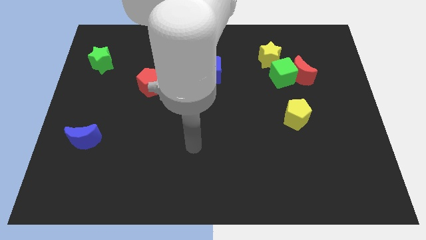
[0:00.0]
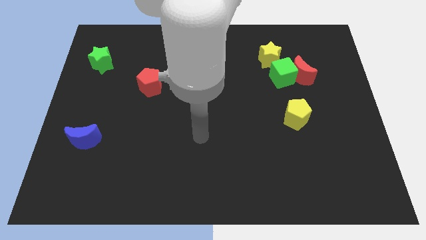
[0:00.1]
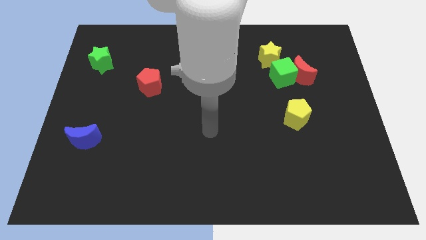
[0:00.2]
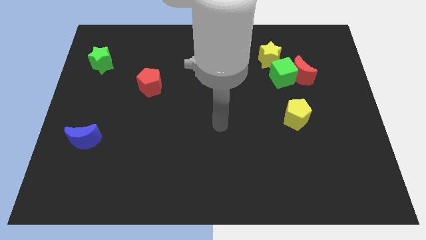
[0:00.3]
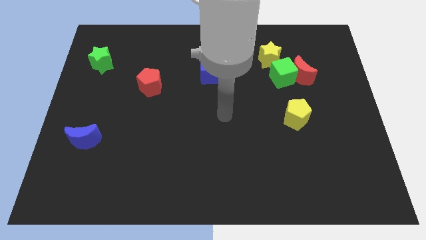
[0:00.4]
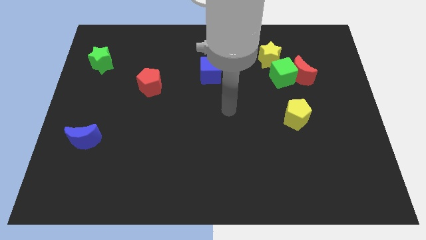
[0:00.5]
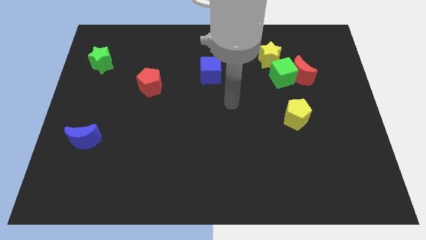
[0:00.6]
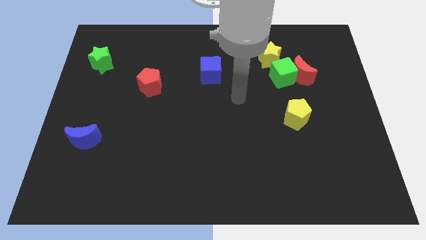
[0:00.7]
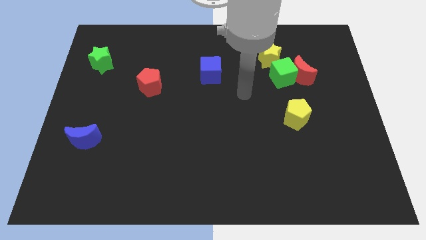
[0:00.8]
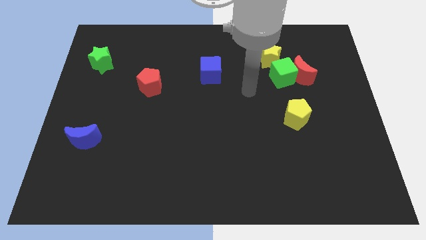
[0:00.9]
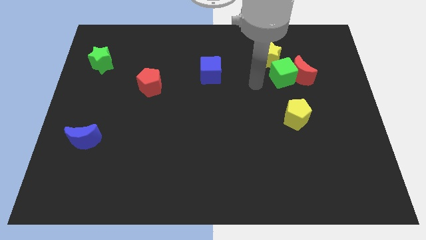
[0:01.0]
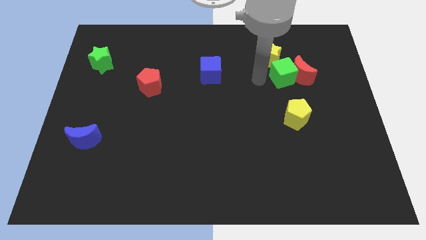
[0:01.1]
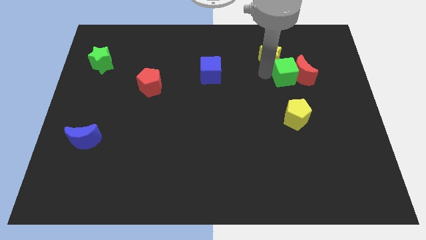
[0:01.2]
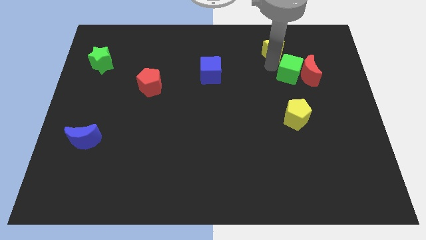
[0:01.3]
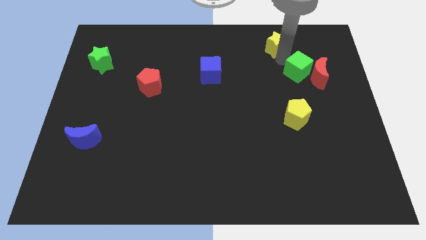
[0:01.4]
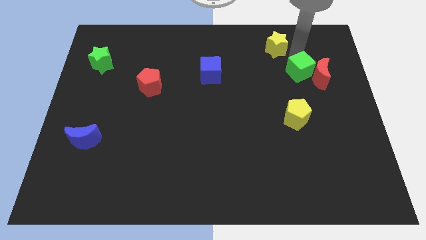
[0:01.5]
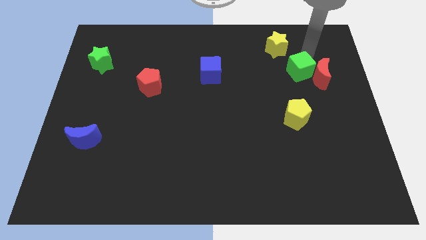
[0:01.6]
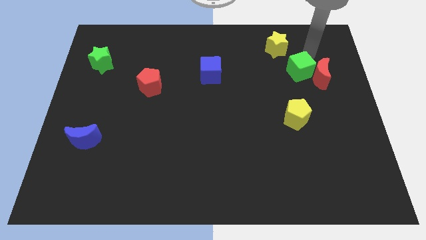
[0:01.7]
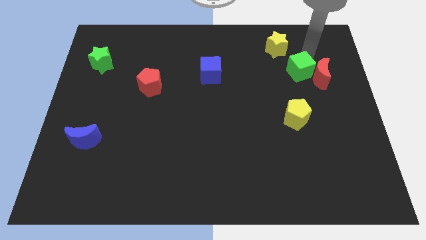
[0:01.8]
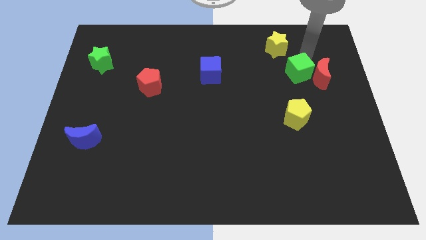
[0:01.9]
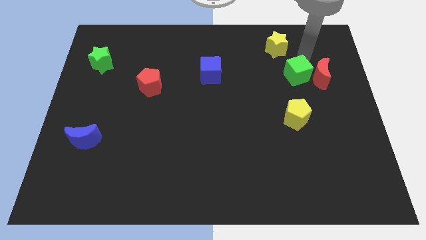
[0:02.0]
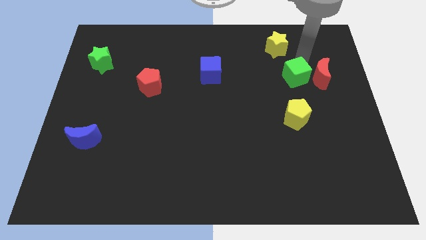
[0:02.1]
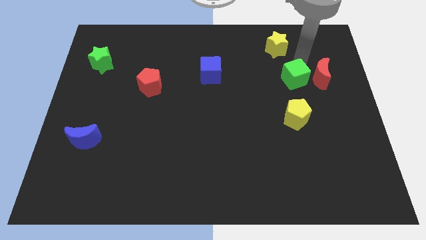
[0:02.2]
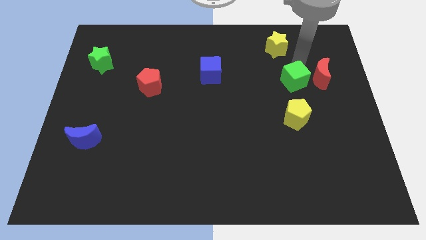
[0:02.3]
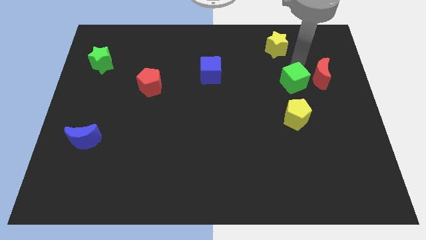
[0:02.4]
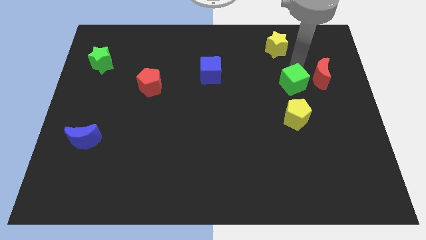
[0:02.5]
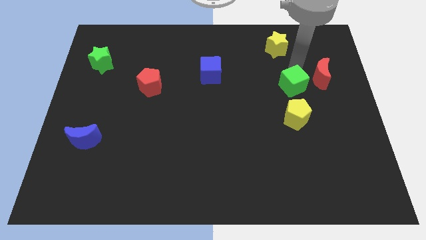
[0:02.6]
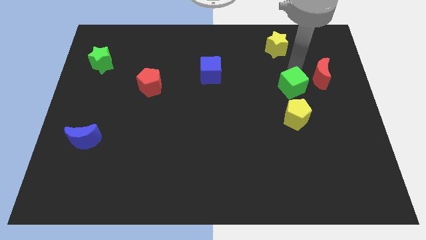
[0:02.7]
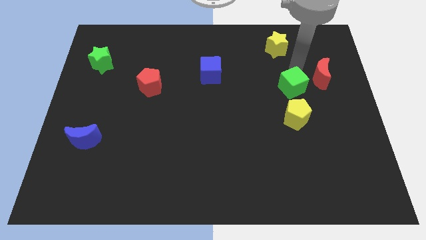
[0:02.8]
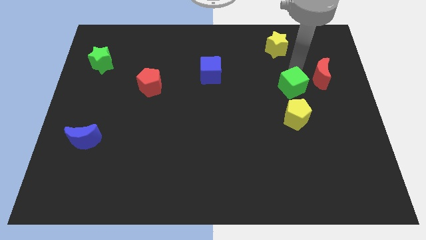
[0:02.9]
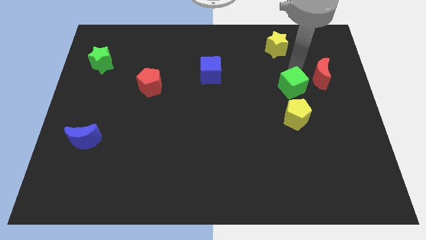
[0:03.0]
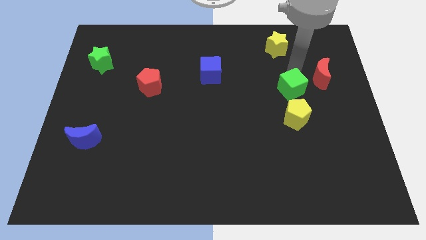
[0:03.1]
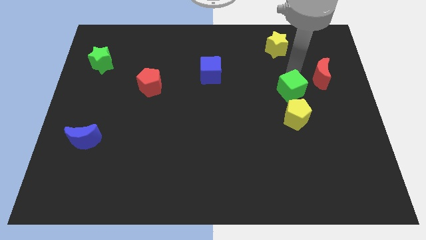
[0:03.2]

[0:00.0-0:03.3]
pull the green cube apart from the red moon and yellow star

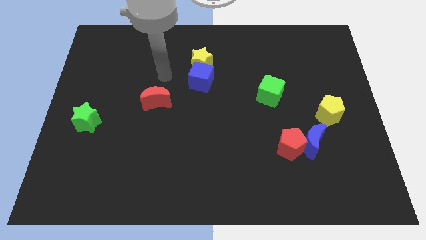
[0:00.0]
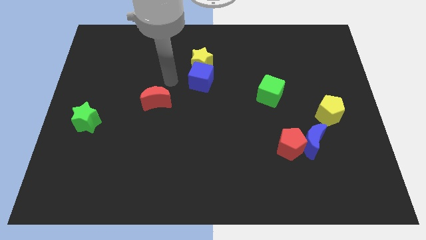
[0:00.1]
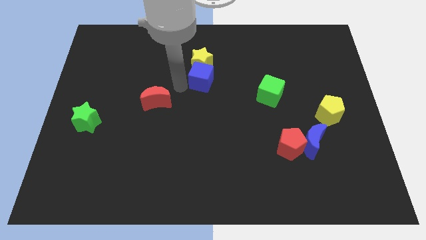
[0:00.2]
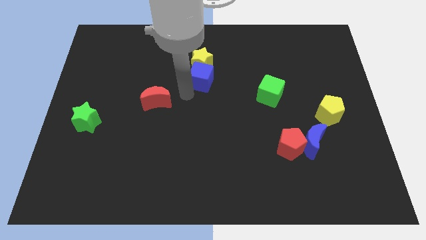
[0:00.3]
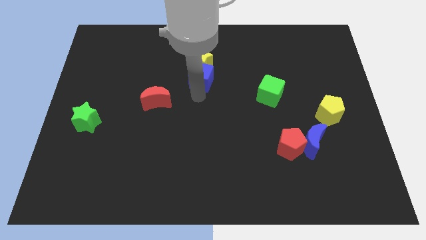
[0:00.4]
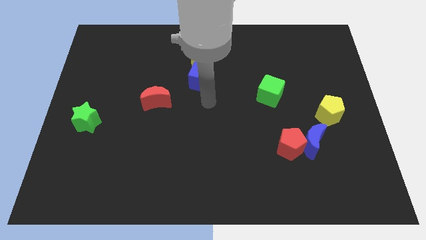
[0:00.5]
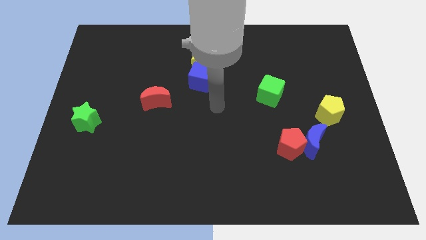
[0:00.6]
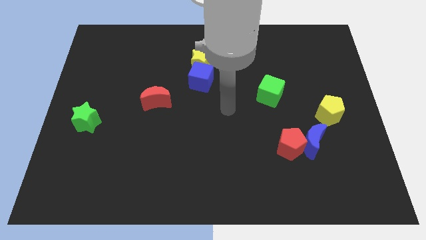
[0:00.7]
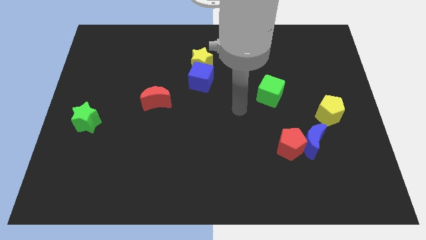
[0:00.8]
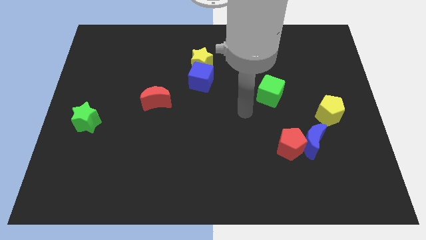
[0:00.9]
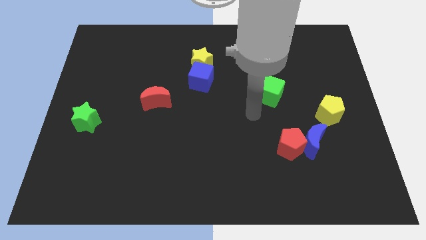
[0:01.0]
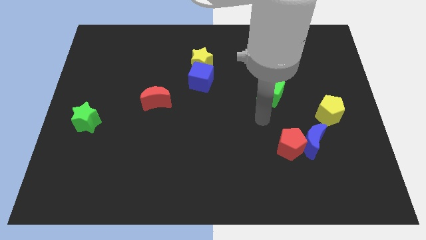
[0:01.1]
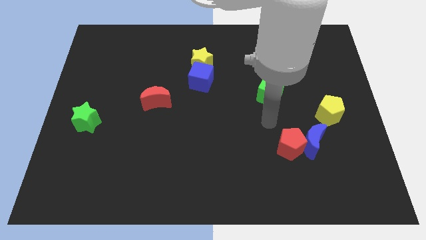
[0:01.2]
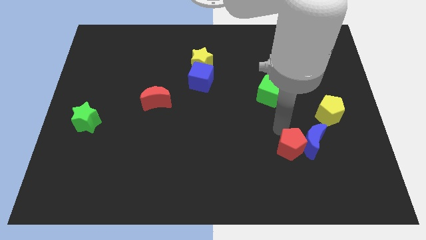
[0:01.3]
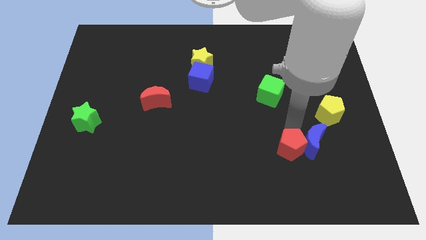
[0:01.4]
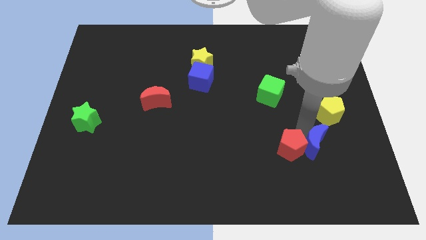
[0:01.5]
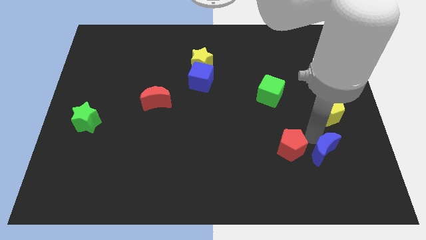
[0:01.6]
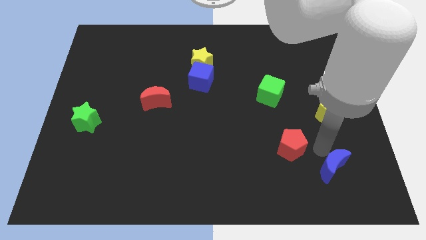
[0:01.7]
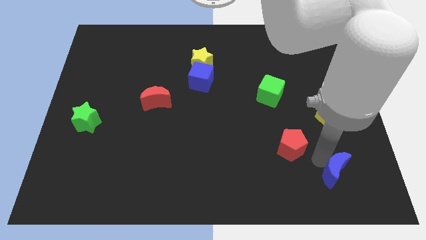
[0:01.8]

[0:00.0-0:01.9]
pull the red pentagon apart from the blue moon

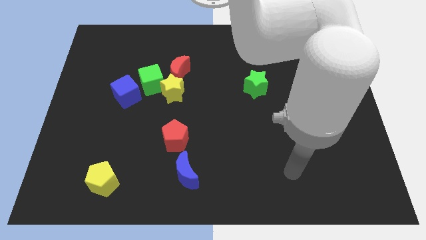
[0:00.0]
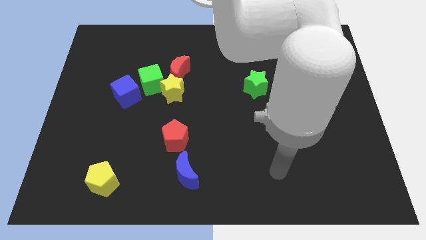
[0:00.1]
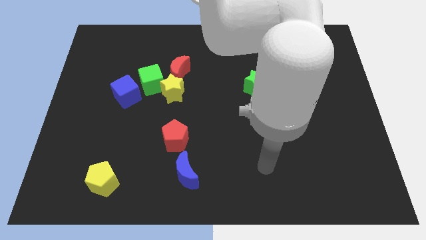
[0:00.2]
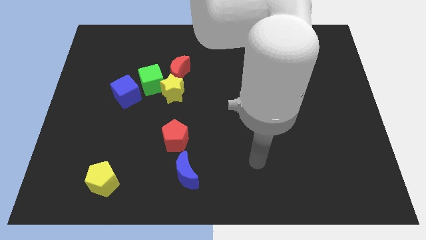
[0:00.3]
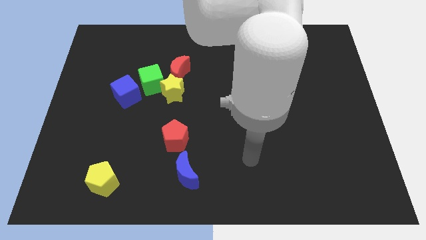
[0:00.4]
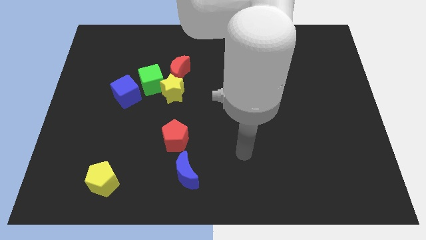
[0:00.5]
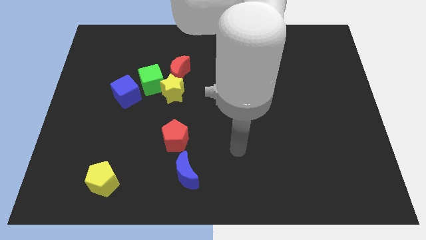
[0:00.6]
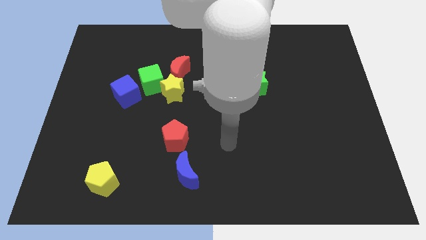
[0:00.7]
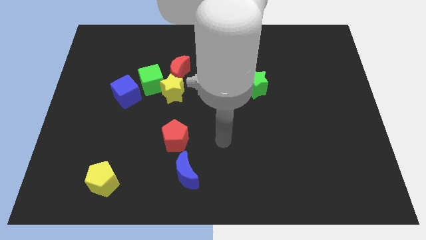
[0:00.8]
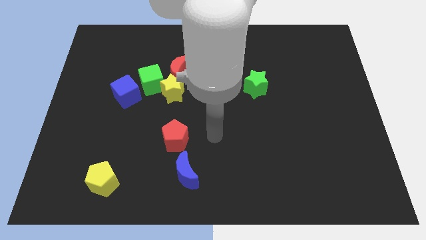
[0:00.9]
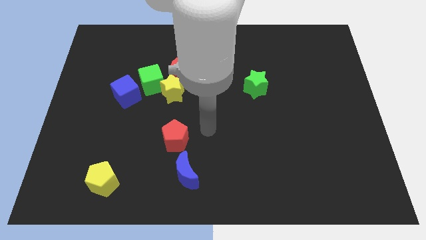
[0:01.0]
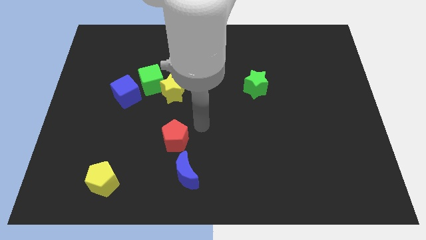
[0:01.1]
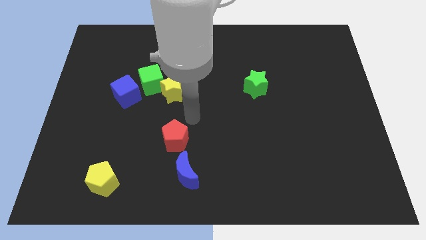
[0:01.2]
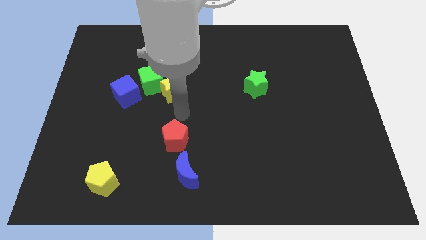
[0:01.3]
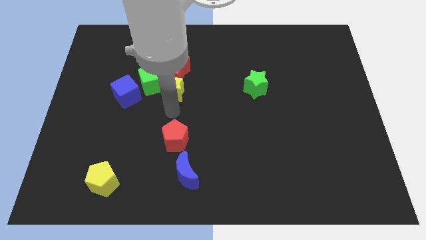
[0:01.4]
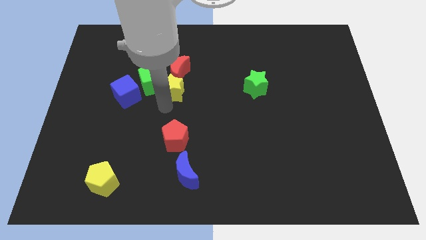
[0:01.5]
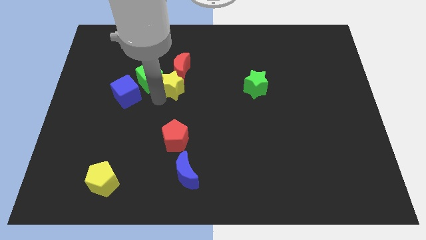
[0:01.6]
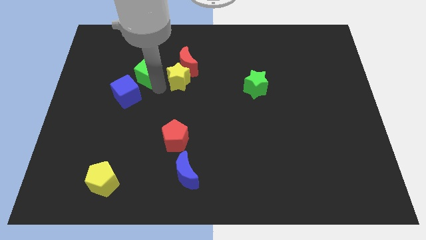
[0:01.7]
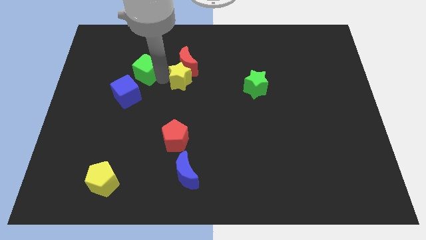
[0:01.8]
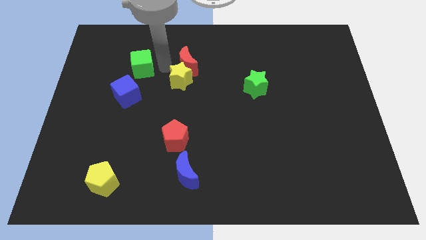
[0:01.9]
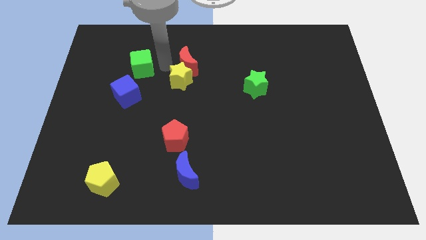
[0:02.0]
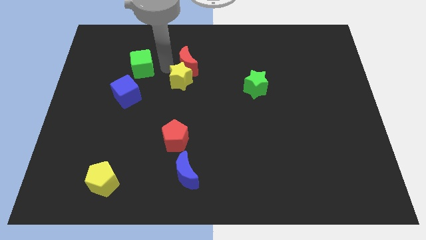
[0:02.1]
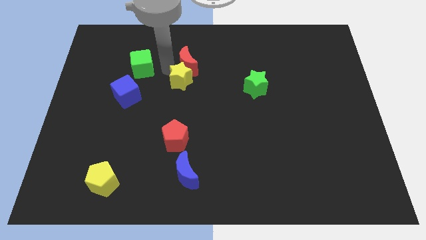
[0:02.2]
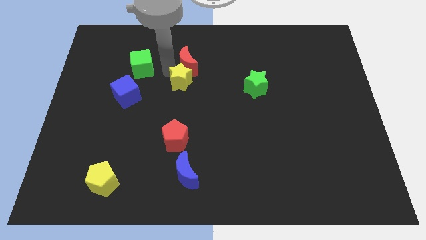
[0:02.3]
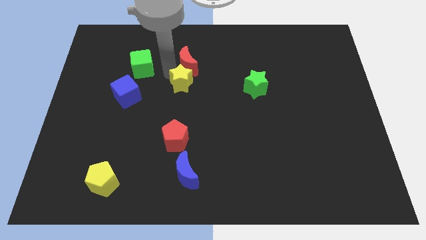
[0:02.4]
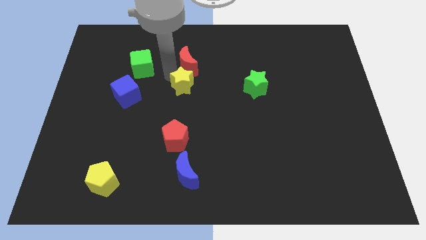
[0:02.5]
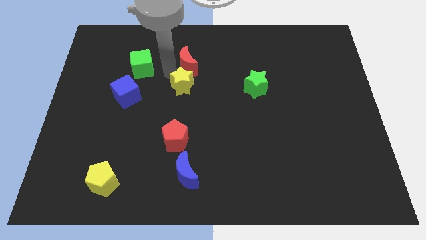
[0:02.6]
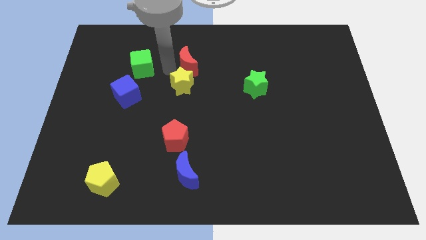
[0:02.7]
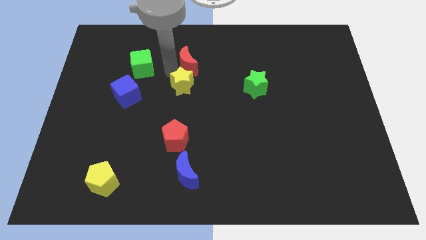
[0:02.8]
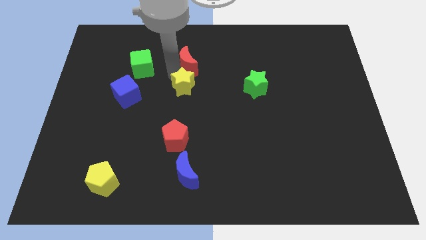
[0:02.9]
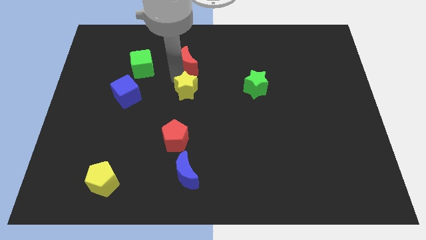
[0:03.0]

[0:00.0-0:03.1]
separate the yellow star from the red moon and green cube

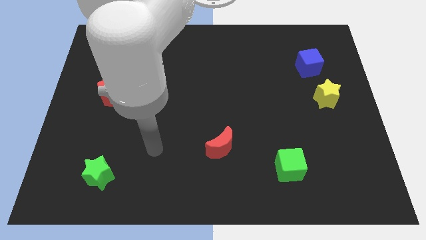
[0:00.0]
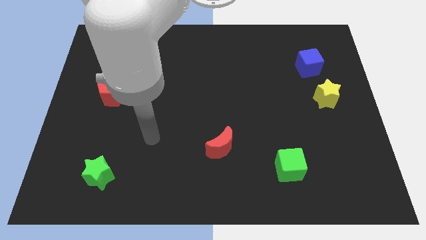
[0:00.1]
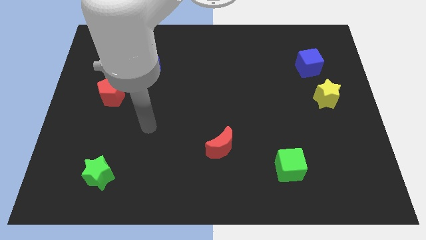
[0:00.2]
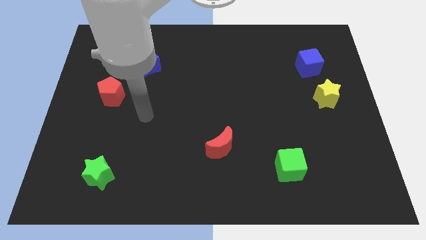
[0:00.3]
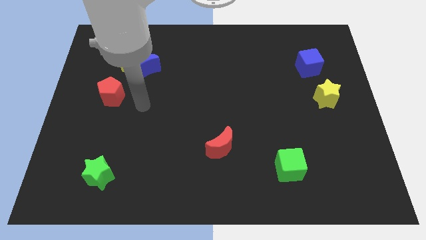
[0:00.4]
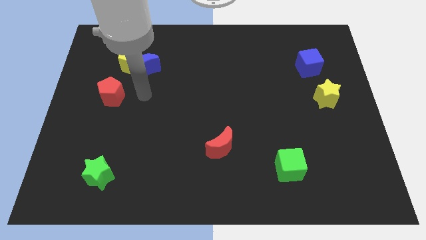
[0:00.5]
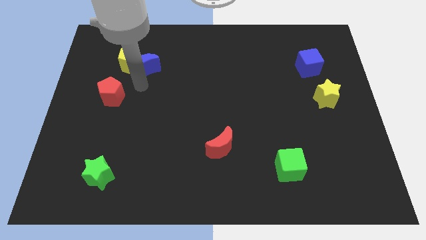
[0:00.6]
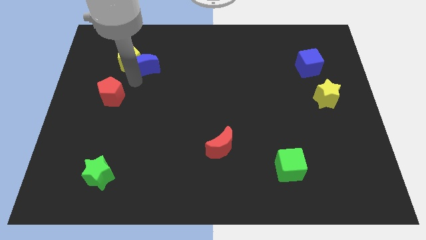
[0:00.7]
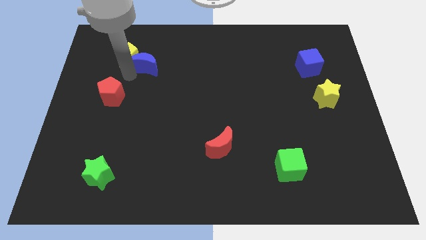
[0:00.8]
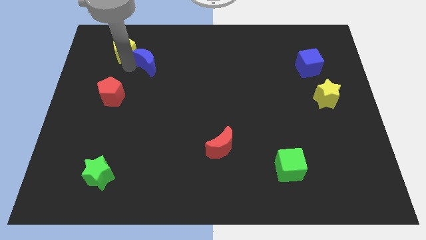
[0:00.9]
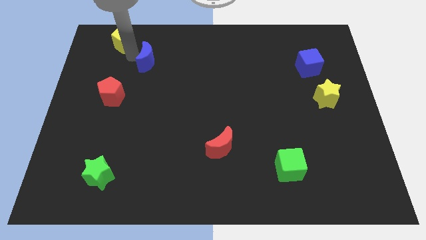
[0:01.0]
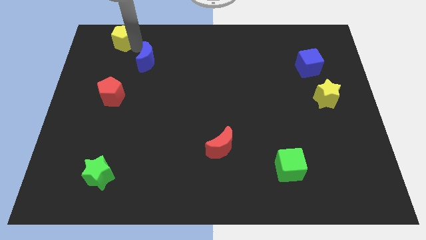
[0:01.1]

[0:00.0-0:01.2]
move the blue moon away from the yellow pentagon

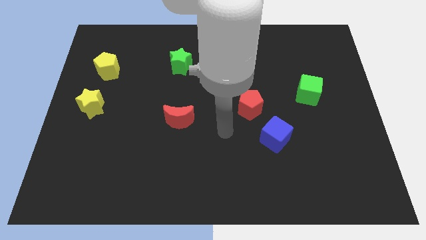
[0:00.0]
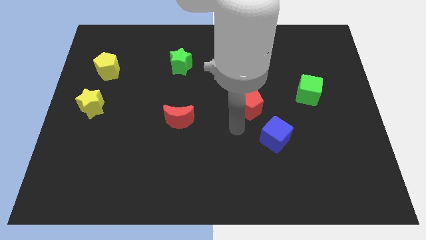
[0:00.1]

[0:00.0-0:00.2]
pull the red pentagon apart from the blue cube
